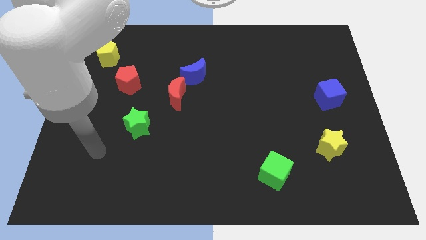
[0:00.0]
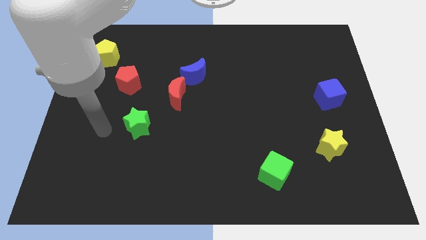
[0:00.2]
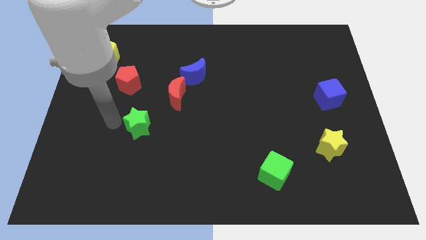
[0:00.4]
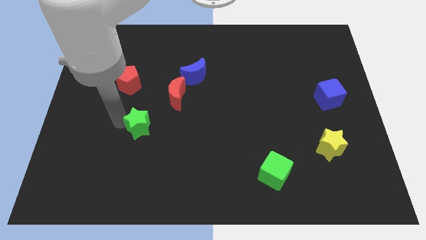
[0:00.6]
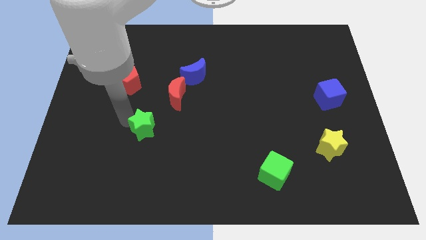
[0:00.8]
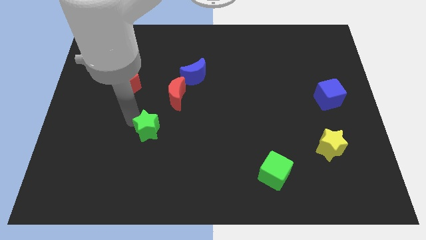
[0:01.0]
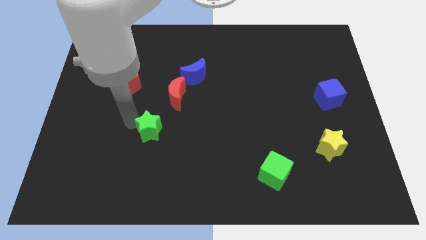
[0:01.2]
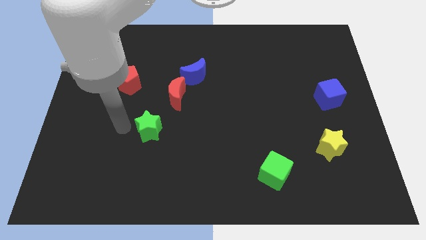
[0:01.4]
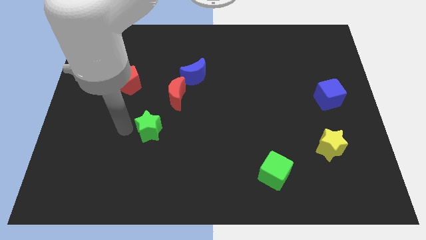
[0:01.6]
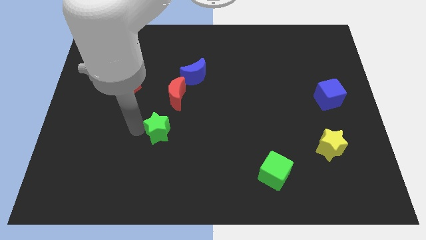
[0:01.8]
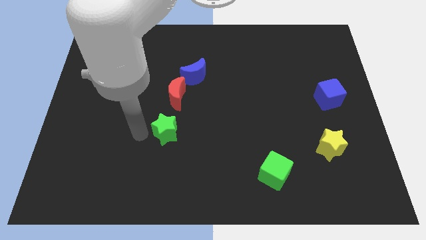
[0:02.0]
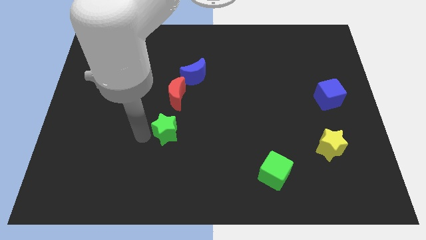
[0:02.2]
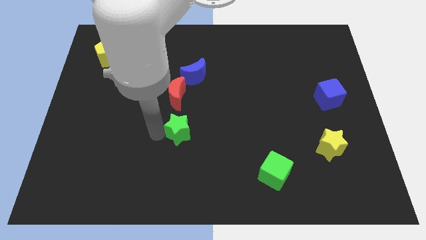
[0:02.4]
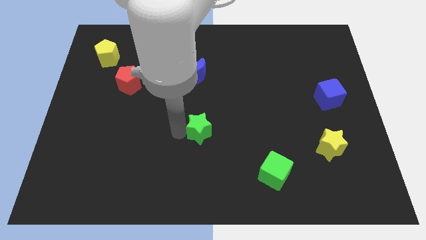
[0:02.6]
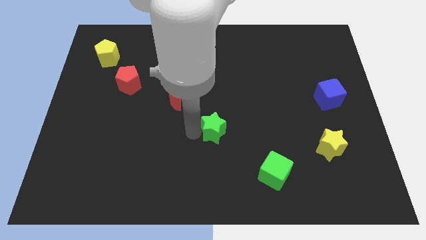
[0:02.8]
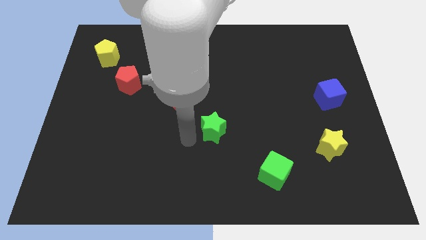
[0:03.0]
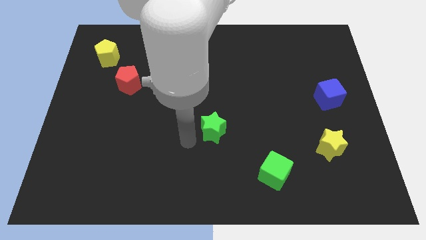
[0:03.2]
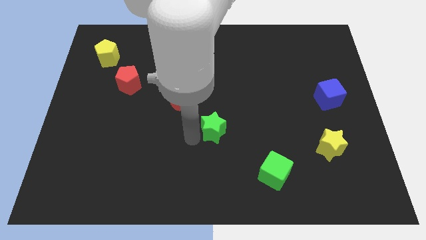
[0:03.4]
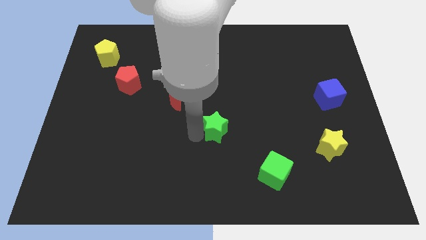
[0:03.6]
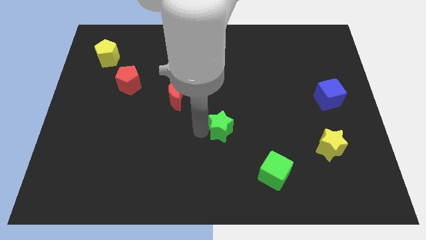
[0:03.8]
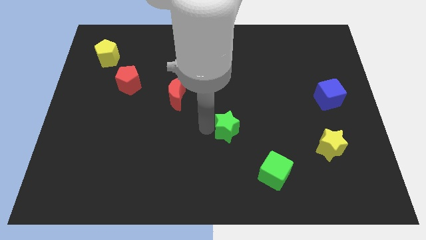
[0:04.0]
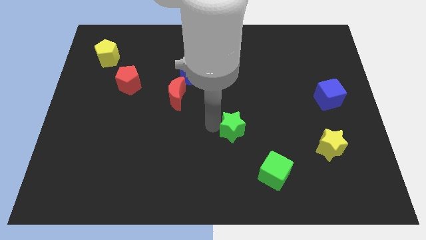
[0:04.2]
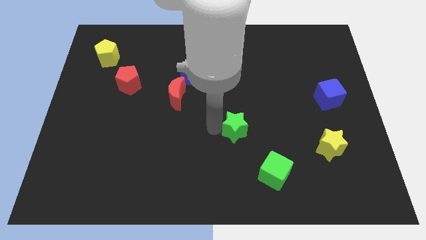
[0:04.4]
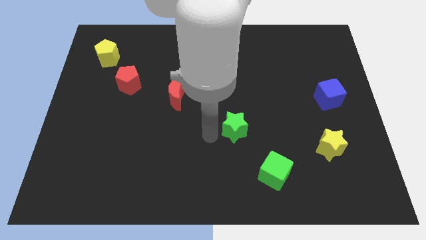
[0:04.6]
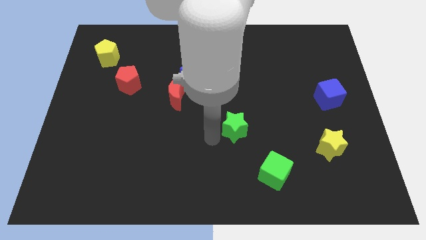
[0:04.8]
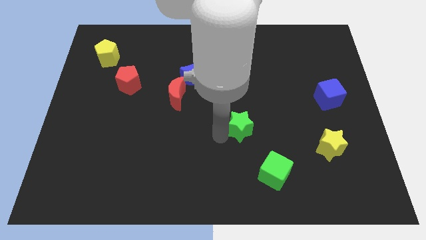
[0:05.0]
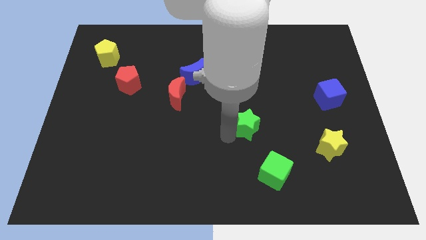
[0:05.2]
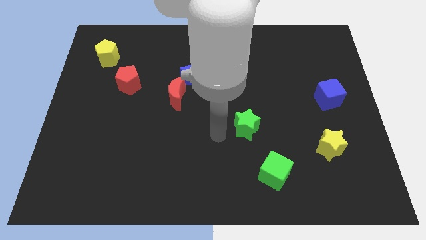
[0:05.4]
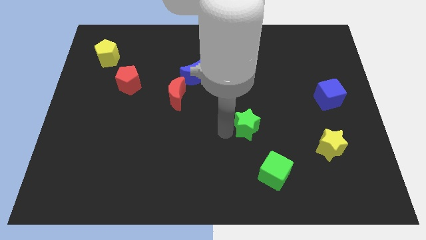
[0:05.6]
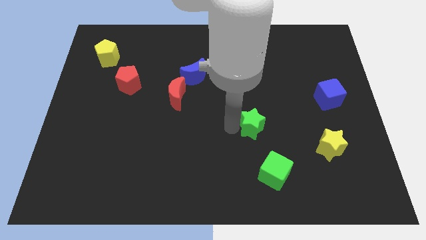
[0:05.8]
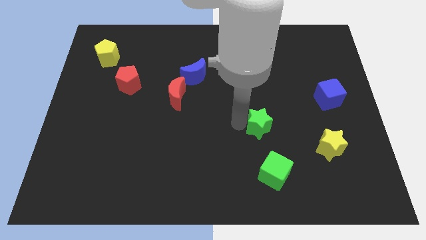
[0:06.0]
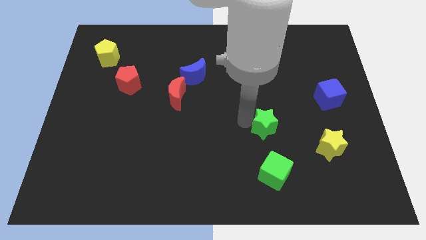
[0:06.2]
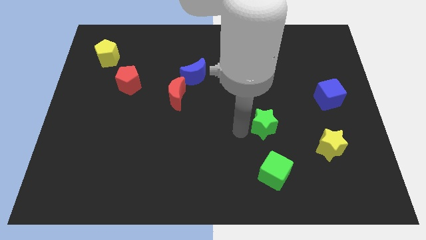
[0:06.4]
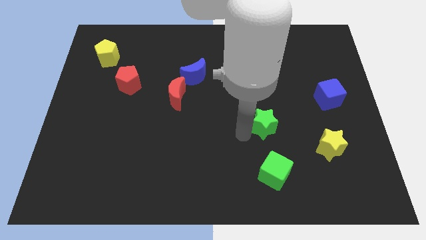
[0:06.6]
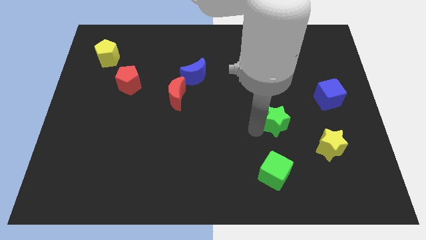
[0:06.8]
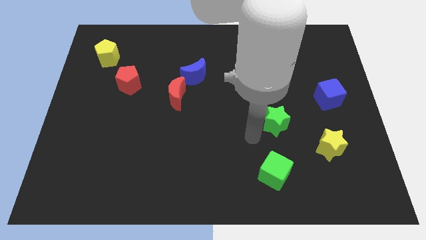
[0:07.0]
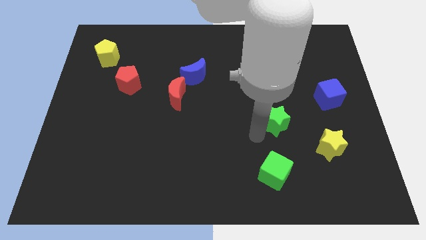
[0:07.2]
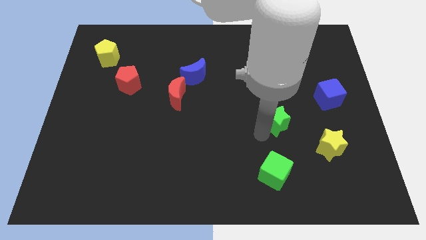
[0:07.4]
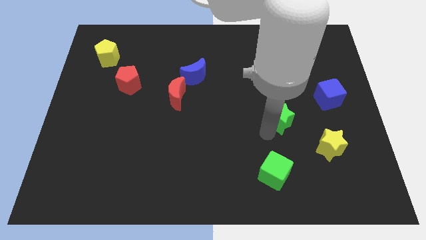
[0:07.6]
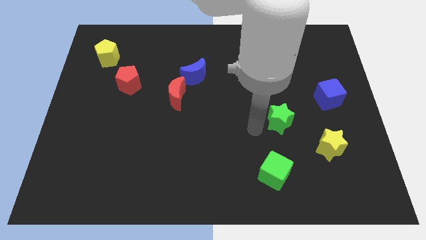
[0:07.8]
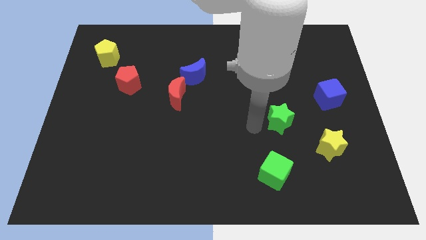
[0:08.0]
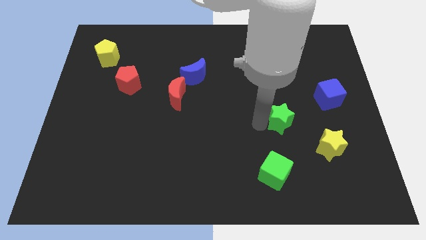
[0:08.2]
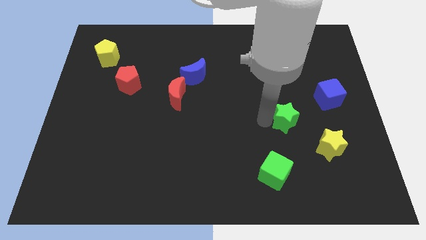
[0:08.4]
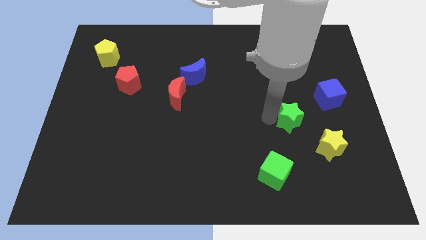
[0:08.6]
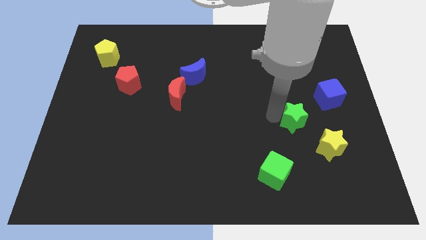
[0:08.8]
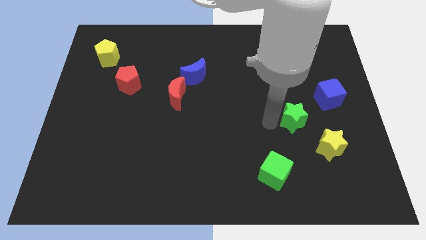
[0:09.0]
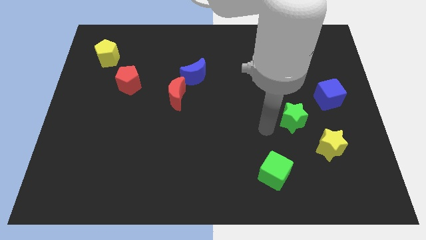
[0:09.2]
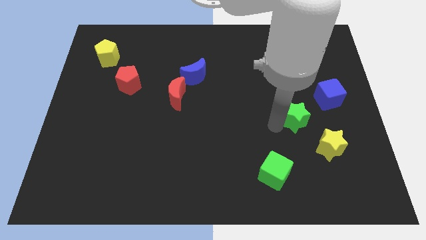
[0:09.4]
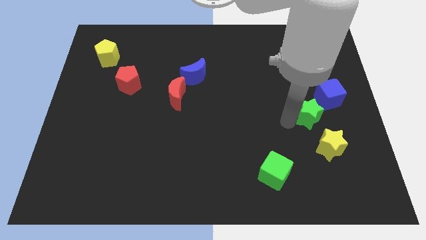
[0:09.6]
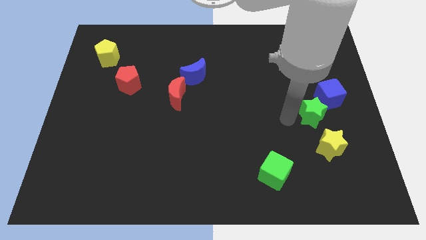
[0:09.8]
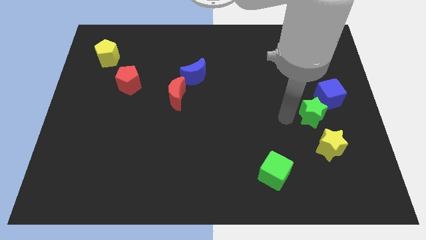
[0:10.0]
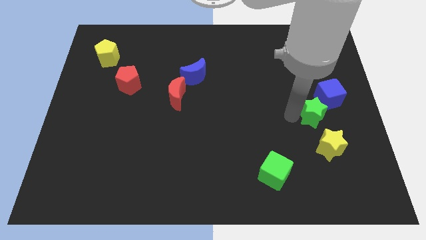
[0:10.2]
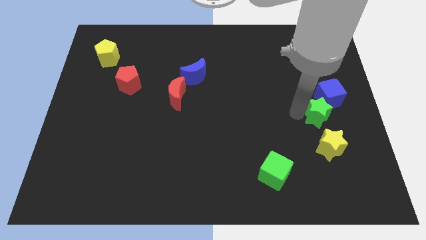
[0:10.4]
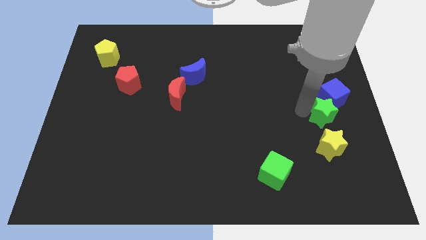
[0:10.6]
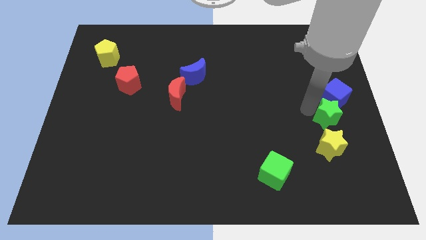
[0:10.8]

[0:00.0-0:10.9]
put the green star to the center right
